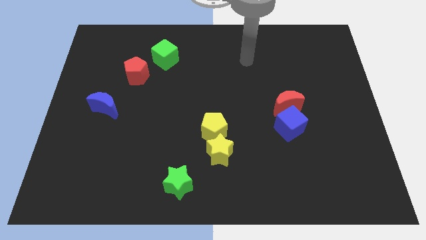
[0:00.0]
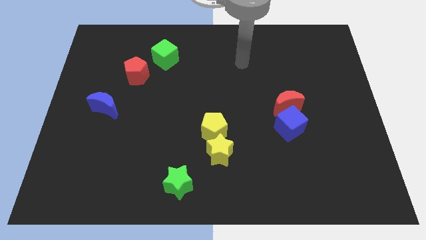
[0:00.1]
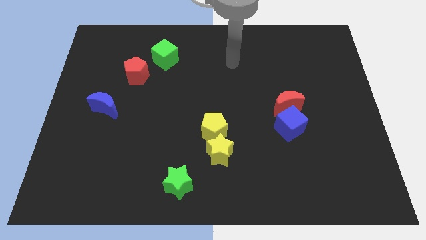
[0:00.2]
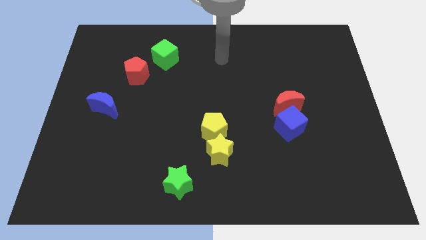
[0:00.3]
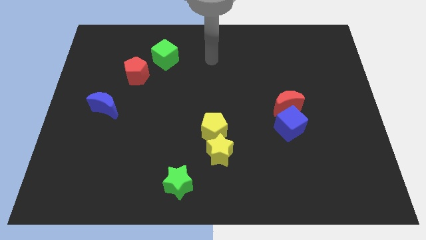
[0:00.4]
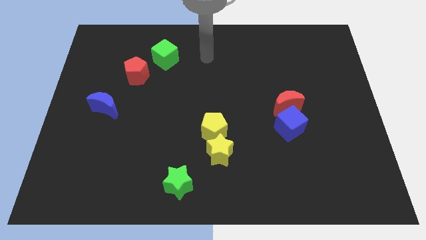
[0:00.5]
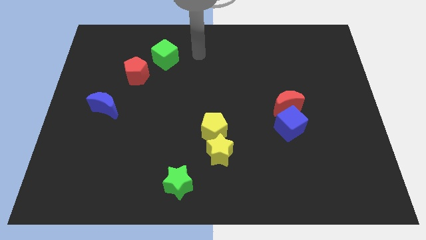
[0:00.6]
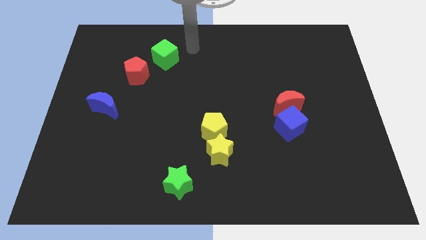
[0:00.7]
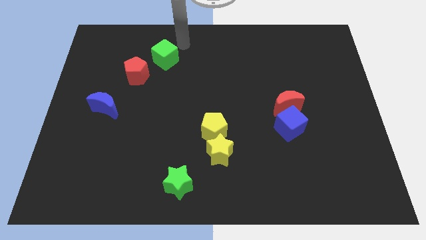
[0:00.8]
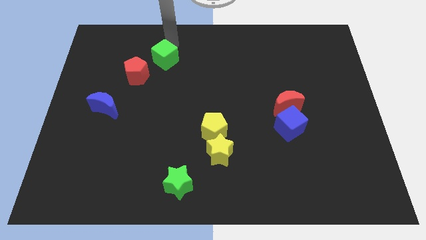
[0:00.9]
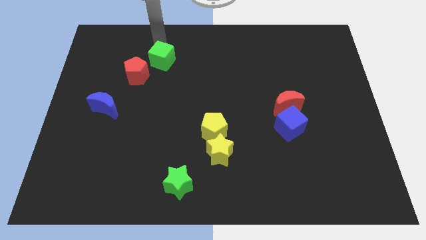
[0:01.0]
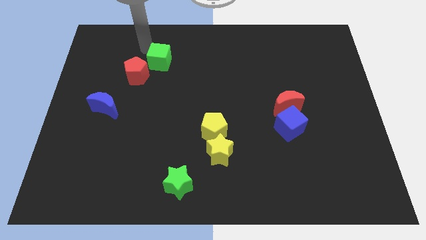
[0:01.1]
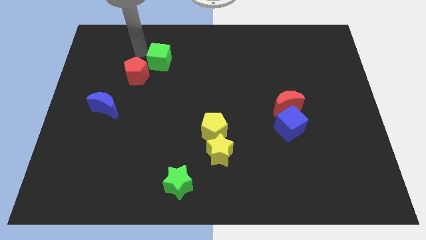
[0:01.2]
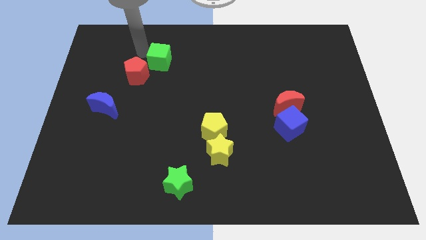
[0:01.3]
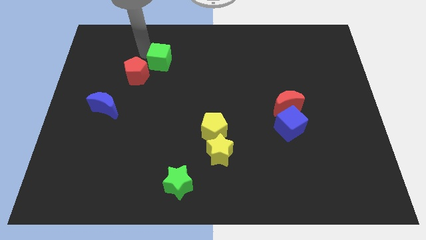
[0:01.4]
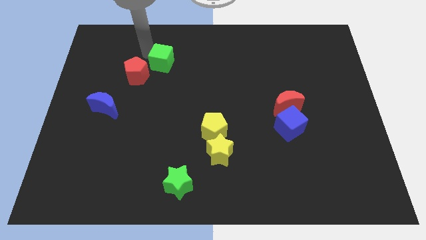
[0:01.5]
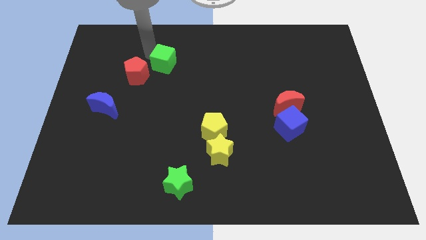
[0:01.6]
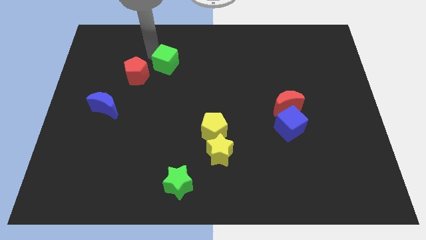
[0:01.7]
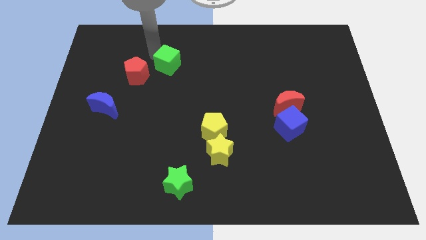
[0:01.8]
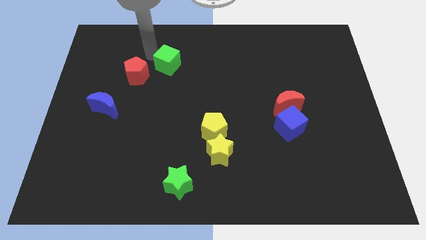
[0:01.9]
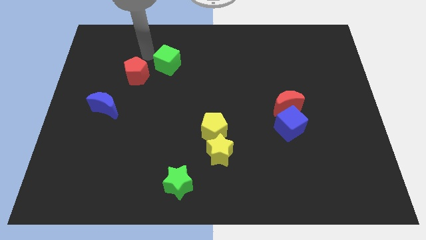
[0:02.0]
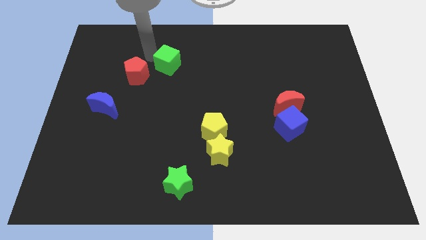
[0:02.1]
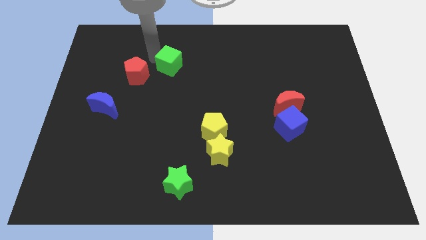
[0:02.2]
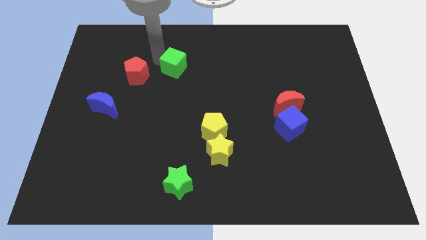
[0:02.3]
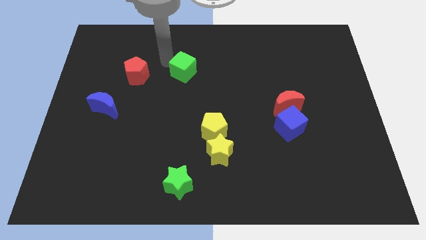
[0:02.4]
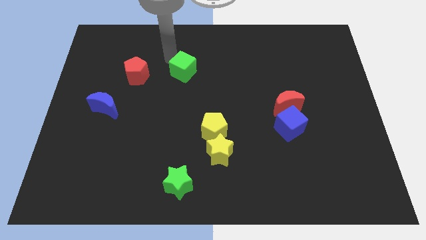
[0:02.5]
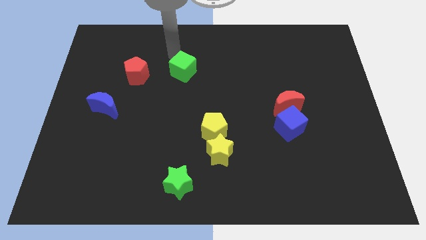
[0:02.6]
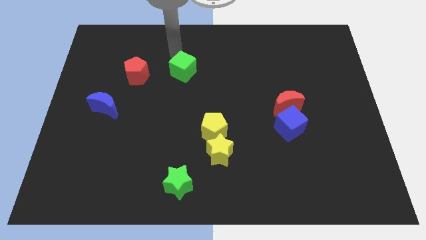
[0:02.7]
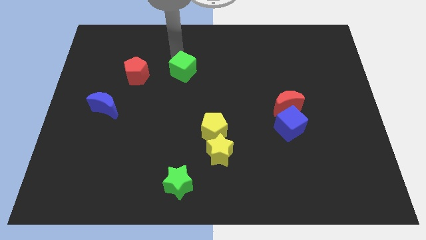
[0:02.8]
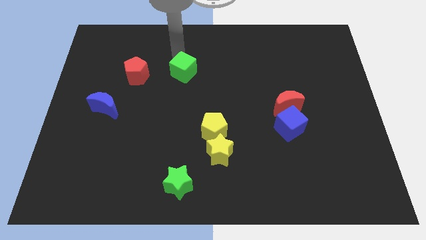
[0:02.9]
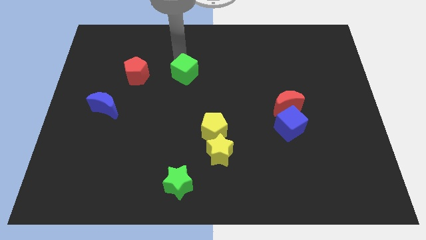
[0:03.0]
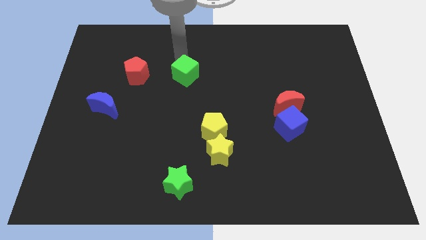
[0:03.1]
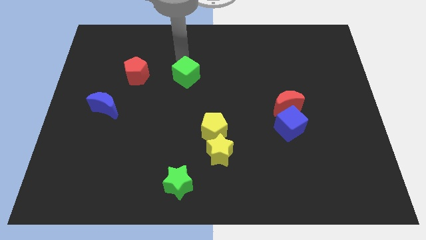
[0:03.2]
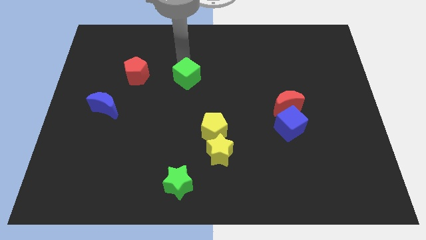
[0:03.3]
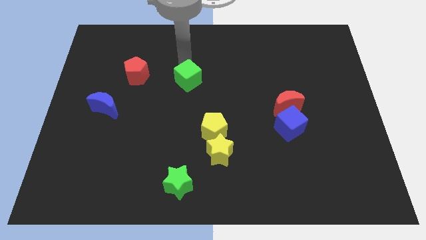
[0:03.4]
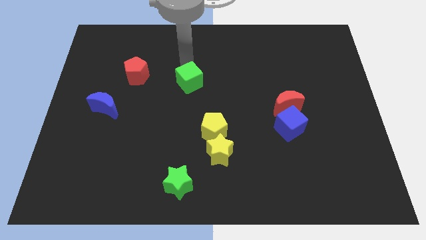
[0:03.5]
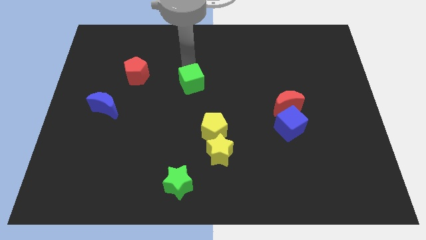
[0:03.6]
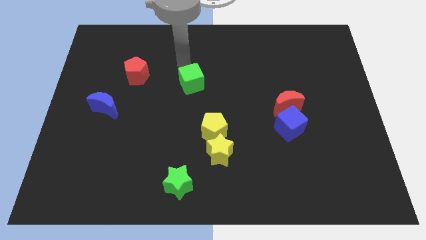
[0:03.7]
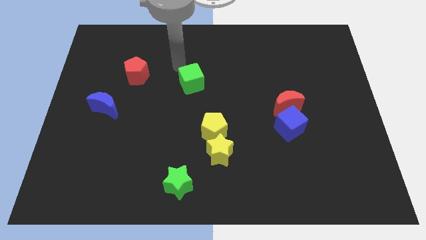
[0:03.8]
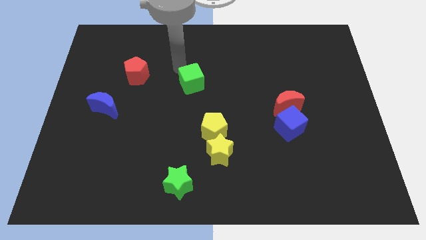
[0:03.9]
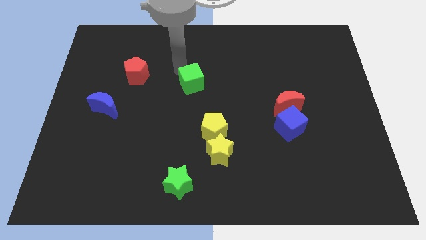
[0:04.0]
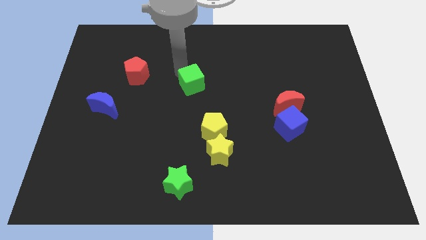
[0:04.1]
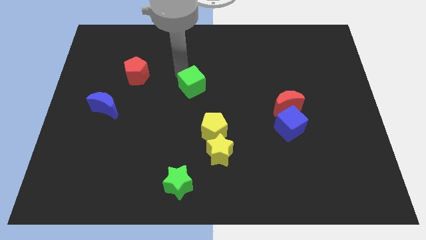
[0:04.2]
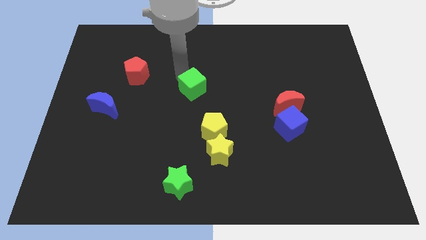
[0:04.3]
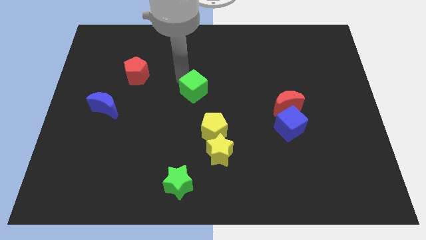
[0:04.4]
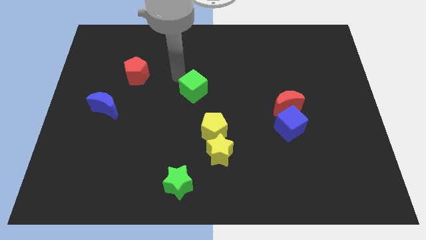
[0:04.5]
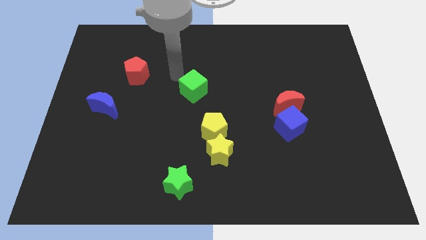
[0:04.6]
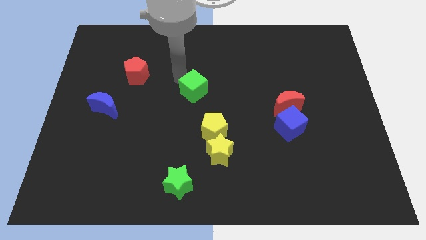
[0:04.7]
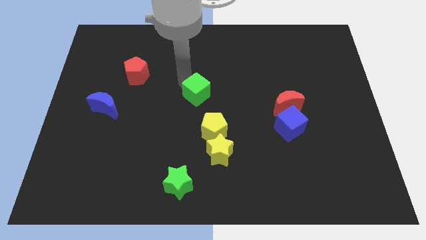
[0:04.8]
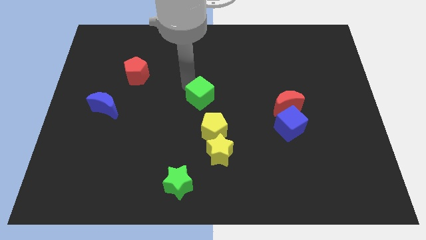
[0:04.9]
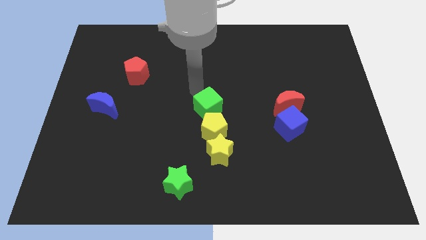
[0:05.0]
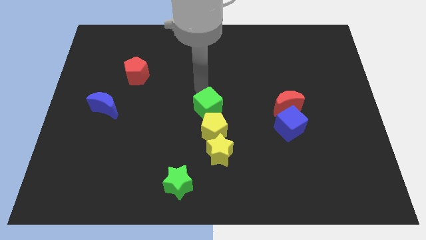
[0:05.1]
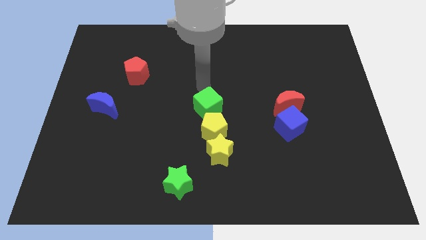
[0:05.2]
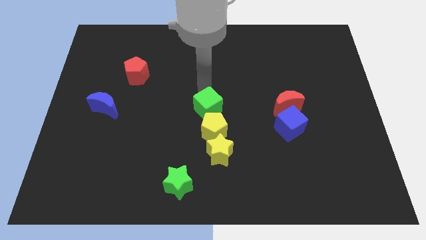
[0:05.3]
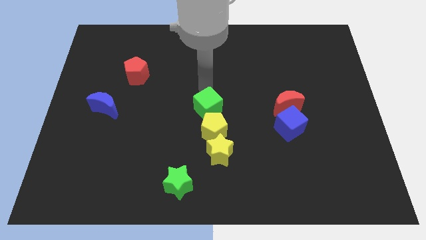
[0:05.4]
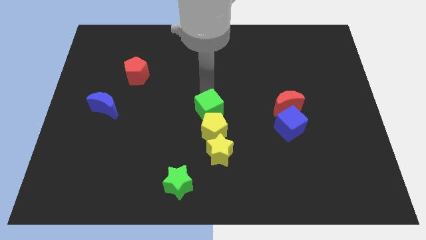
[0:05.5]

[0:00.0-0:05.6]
push the green cube next to the yellow pentagon

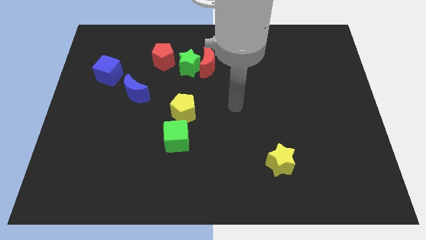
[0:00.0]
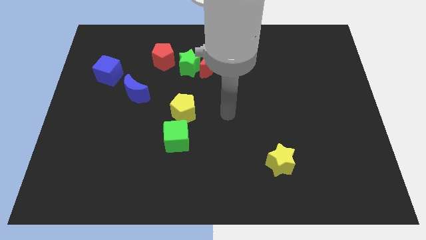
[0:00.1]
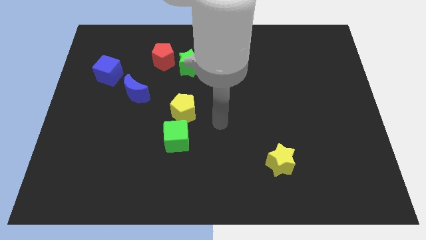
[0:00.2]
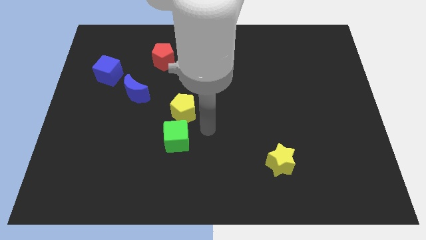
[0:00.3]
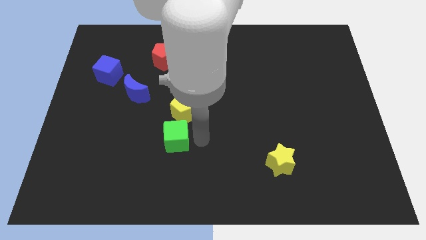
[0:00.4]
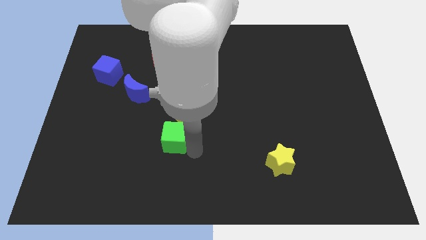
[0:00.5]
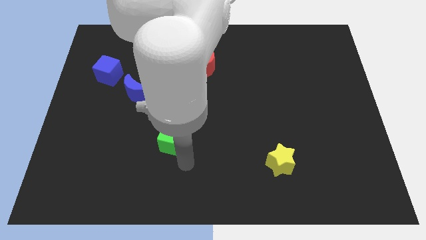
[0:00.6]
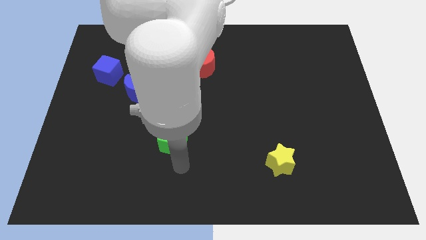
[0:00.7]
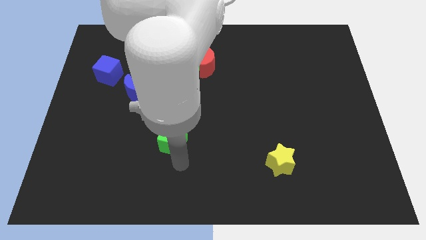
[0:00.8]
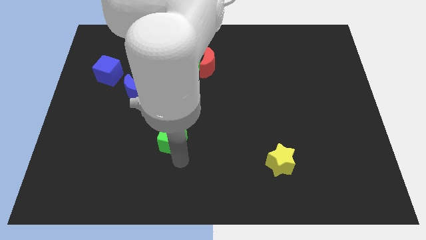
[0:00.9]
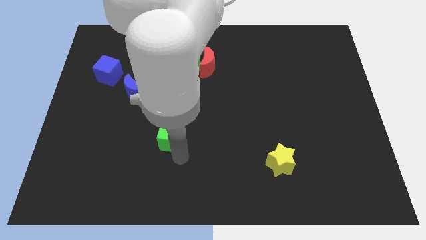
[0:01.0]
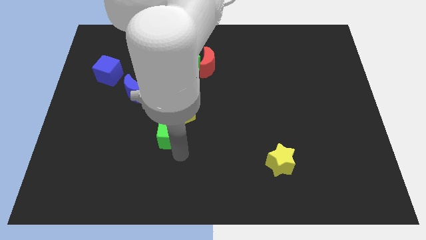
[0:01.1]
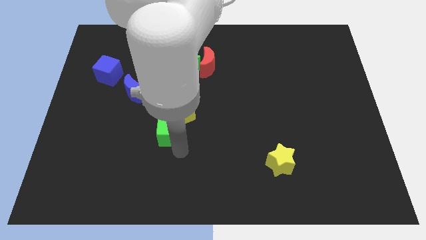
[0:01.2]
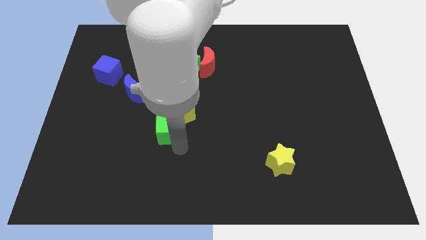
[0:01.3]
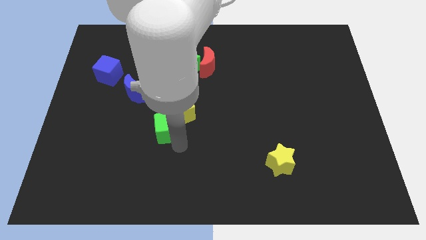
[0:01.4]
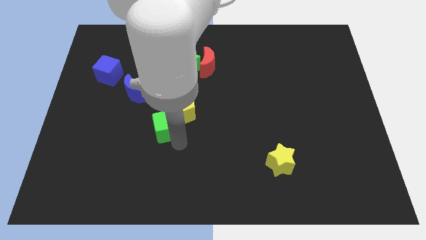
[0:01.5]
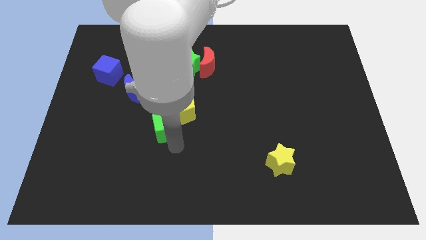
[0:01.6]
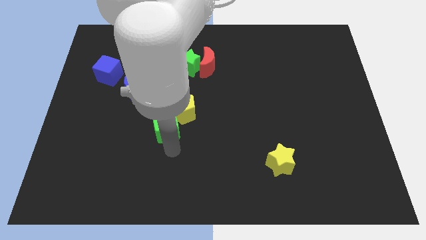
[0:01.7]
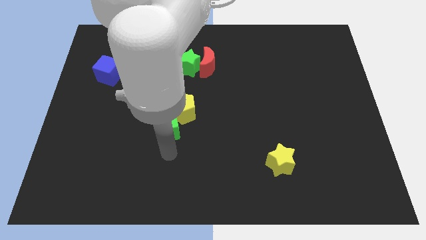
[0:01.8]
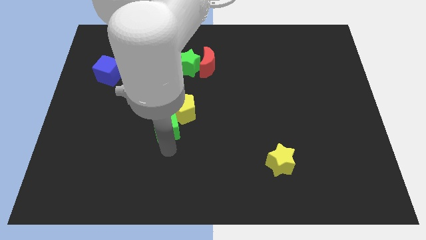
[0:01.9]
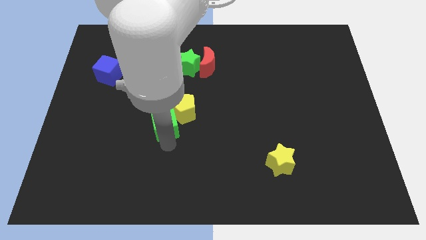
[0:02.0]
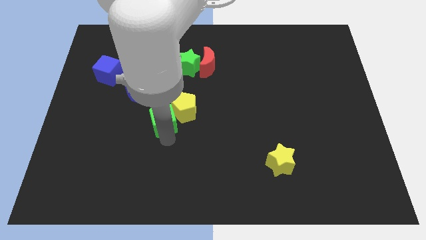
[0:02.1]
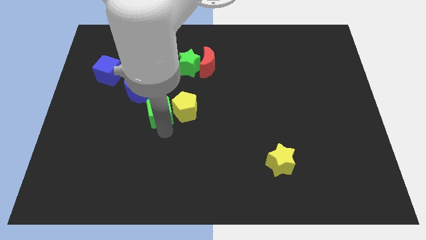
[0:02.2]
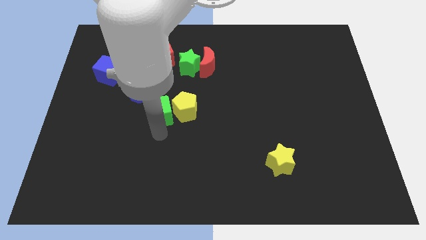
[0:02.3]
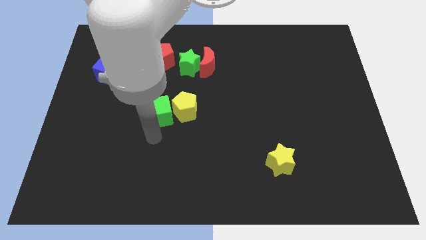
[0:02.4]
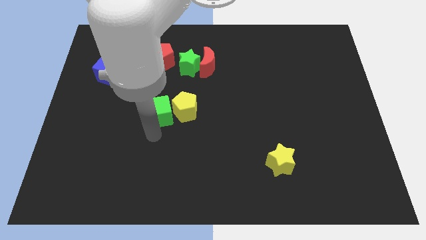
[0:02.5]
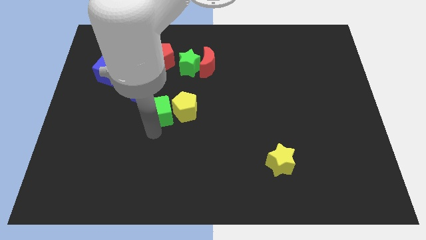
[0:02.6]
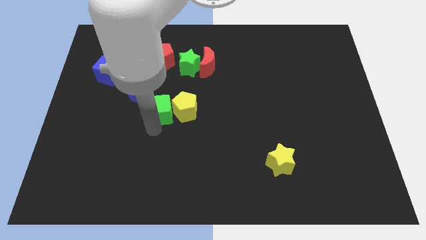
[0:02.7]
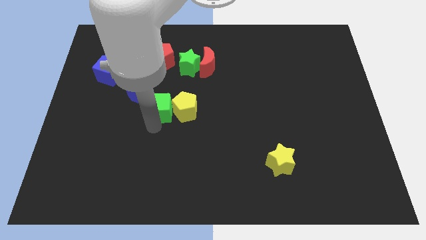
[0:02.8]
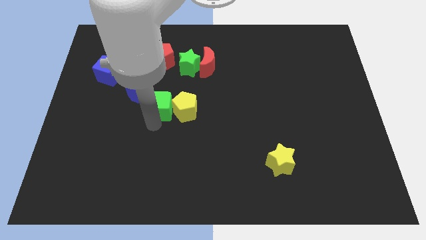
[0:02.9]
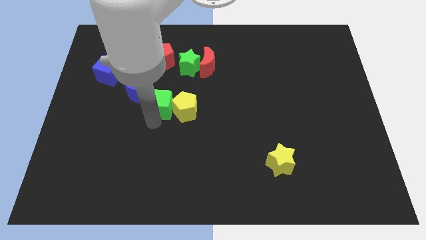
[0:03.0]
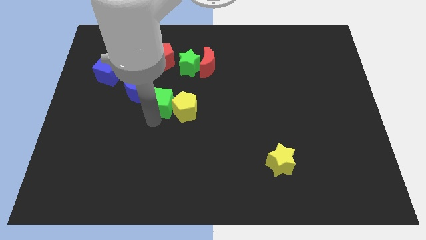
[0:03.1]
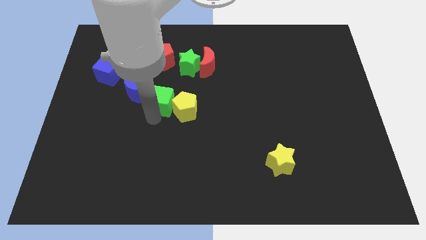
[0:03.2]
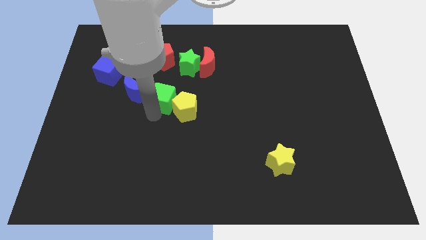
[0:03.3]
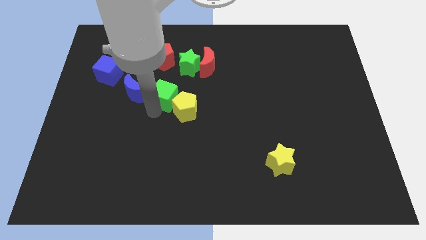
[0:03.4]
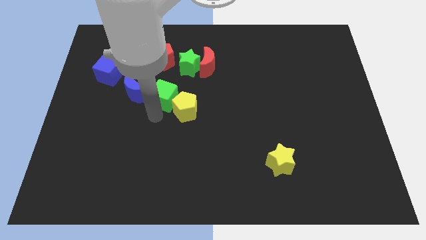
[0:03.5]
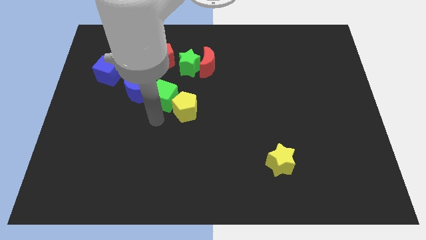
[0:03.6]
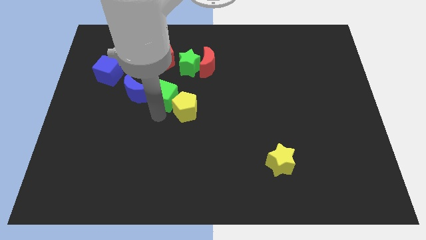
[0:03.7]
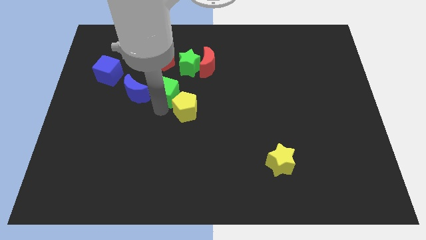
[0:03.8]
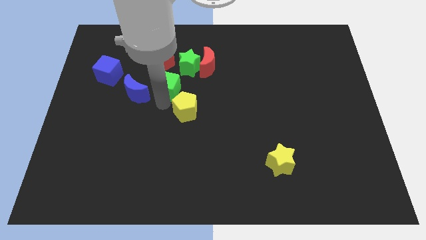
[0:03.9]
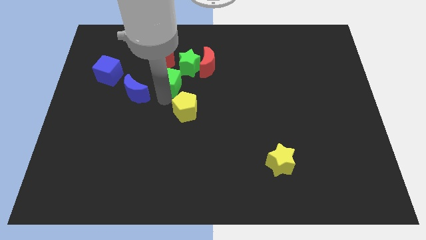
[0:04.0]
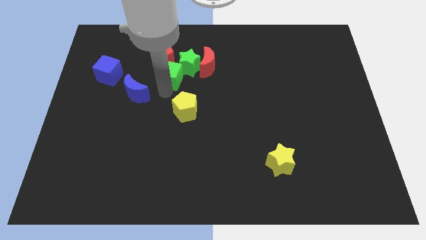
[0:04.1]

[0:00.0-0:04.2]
move the green cube next to the green star
